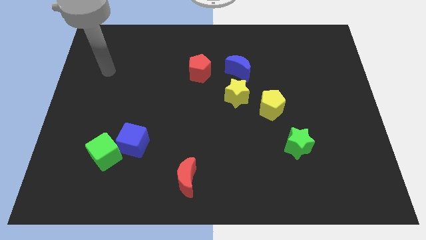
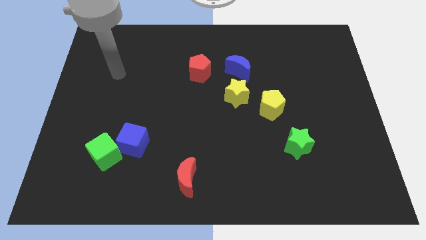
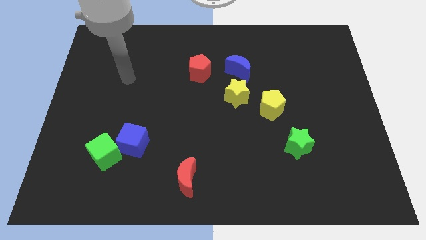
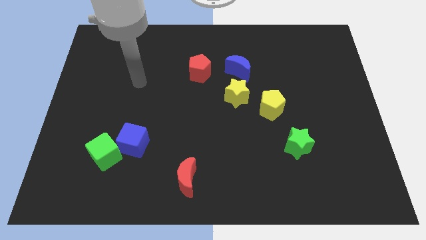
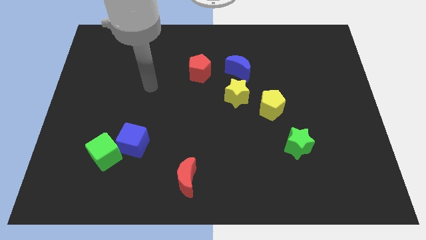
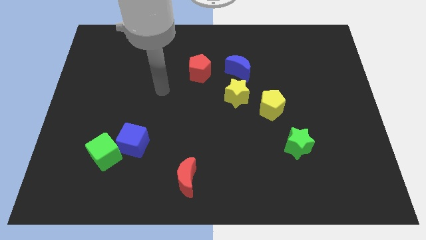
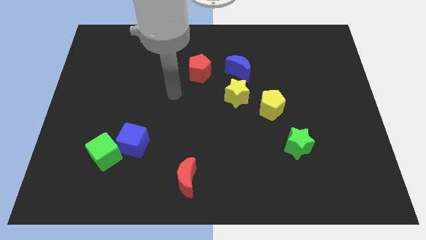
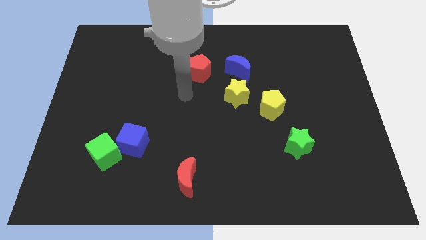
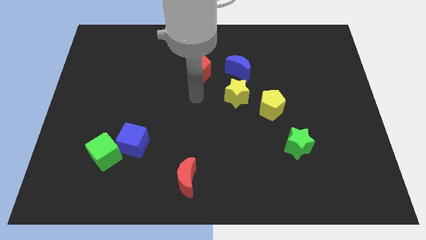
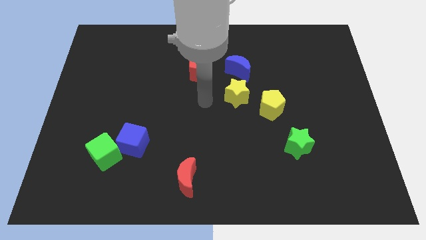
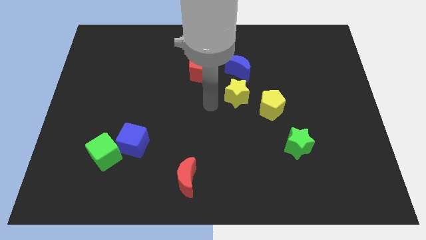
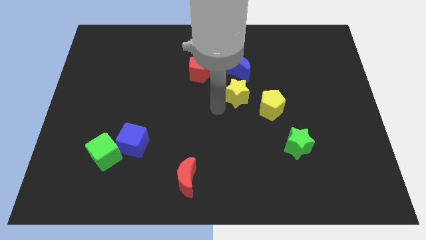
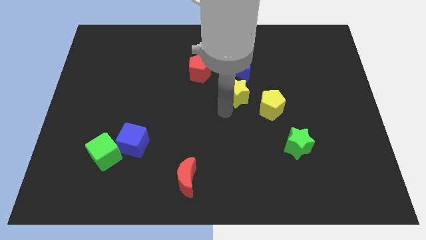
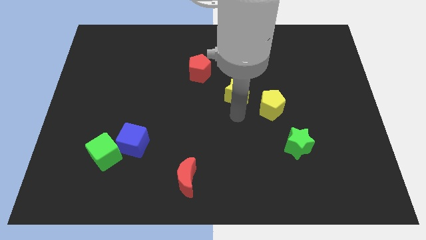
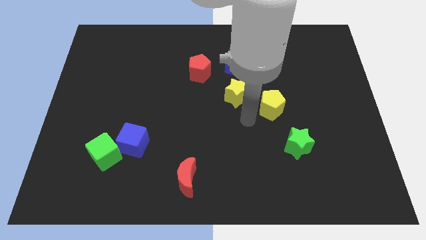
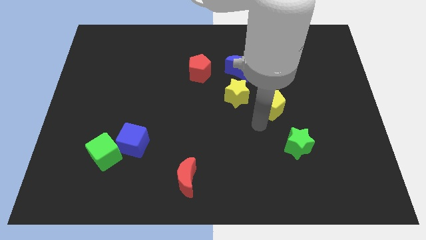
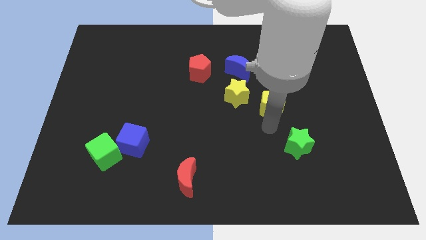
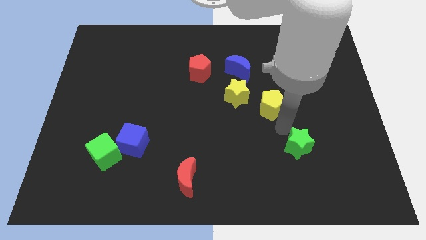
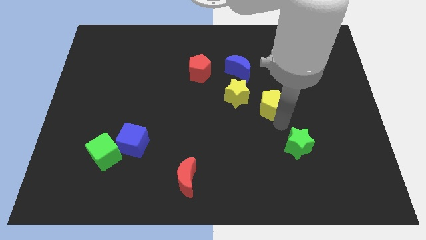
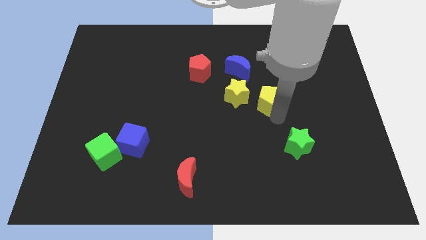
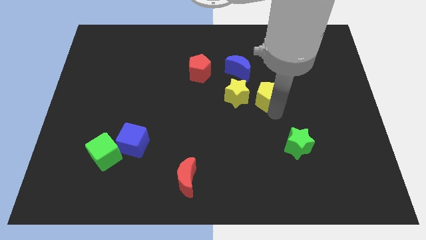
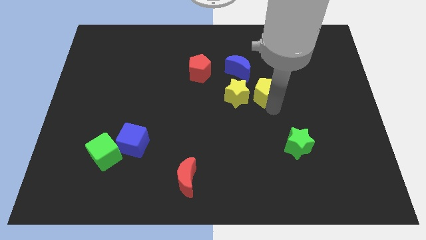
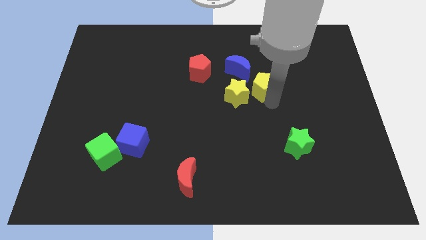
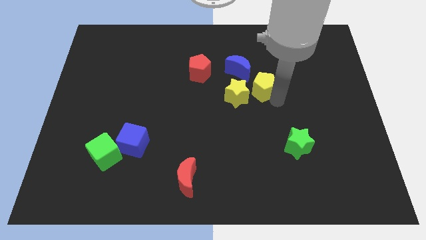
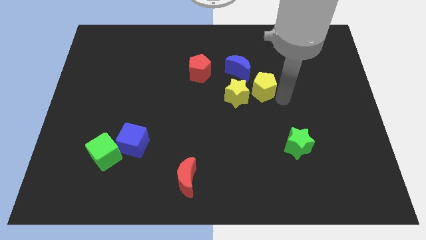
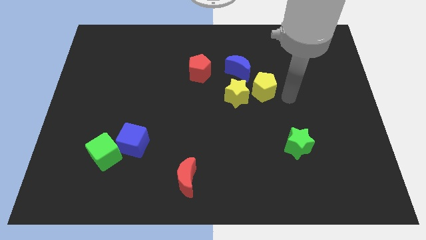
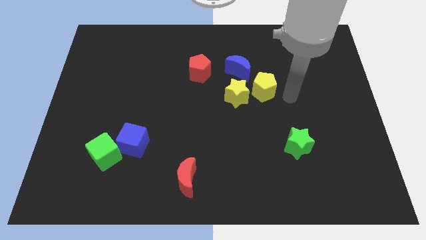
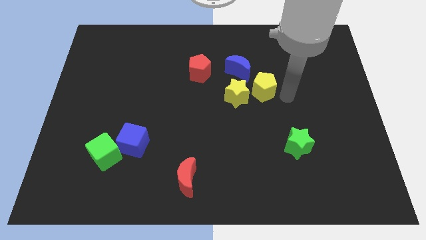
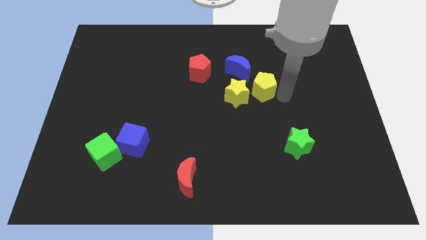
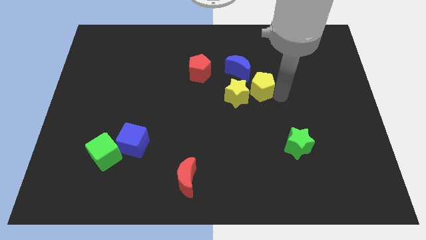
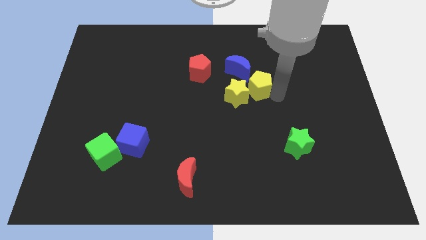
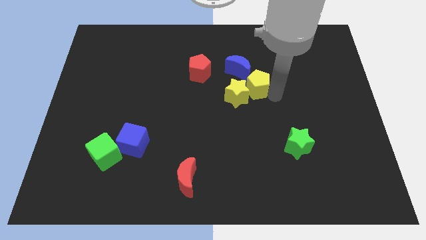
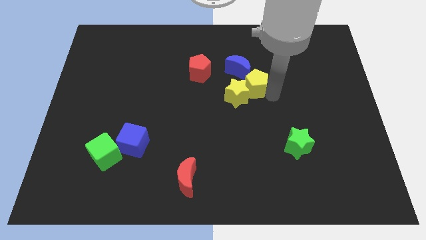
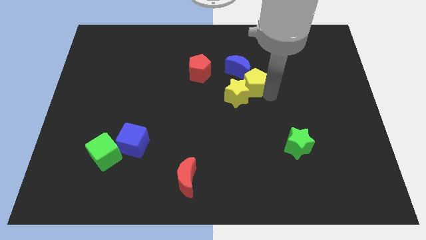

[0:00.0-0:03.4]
slightly slide the yellow pentagon upwards and then to the left

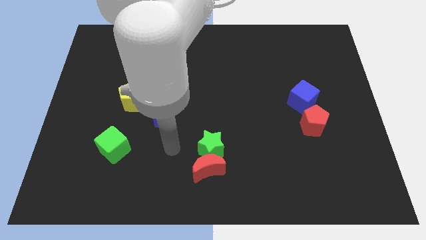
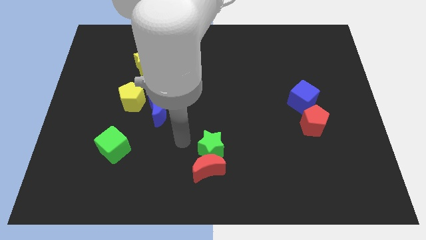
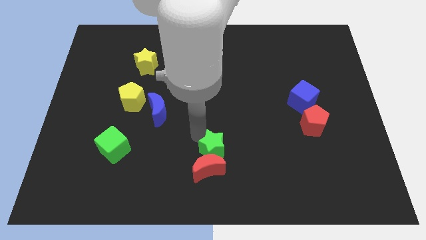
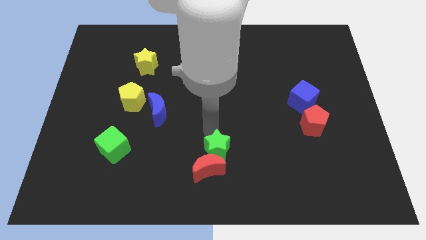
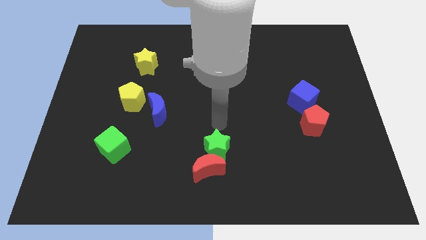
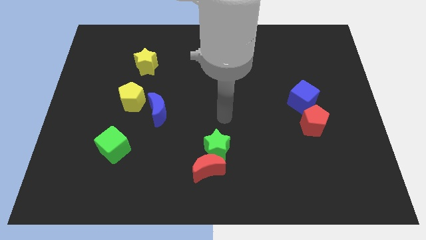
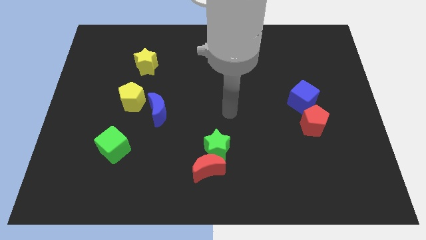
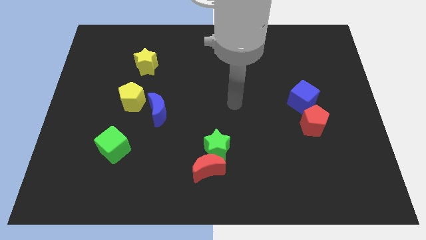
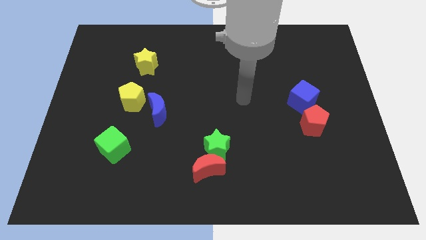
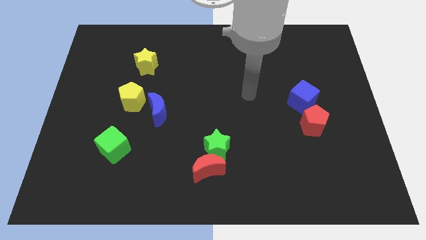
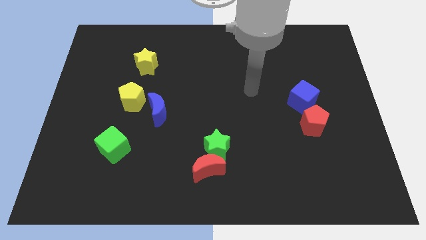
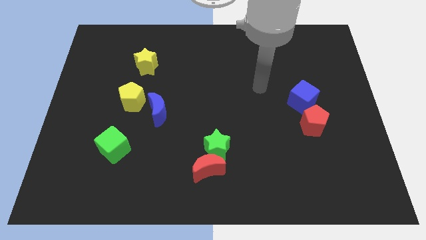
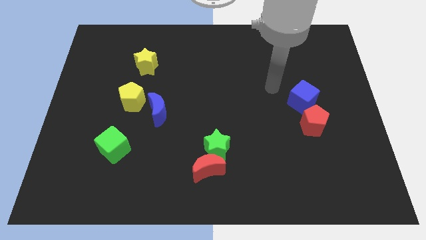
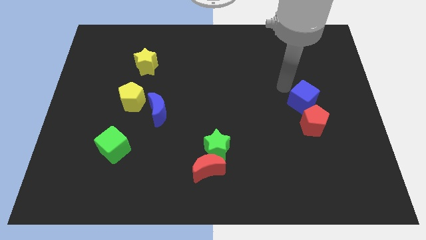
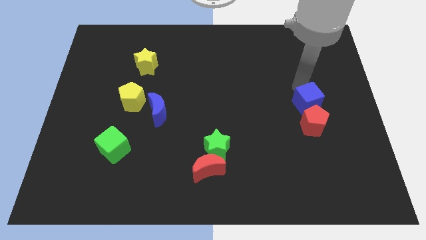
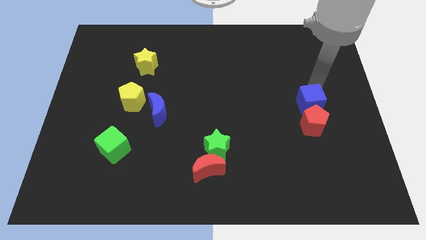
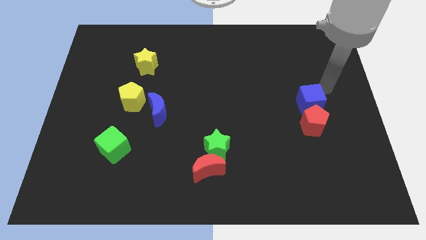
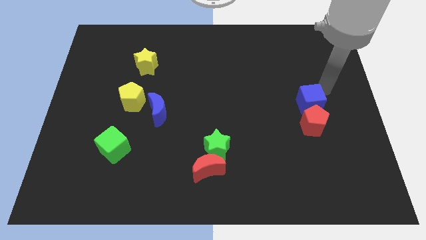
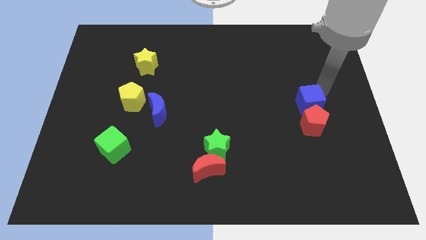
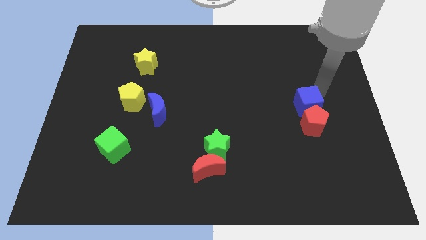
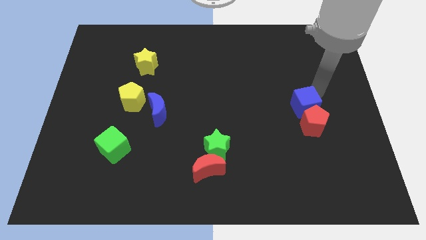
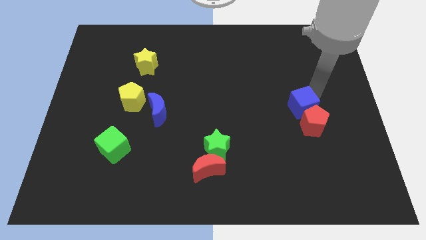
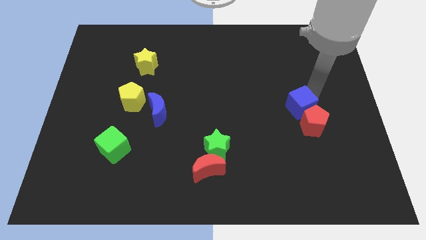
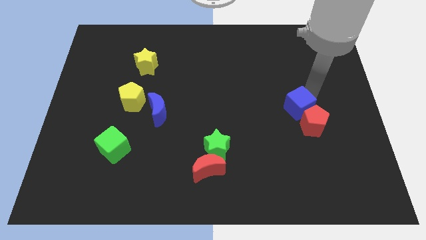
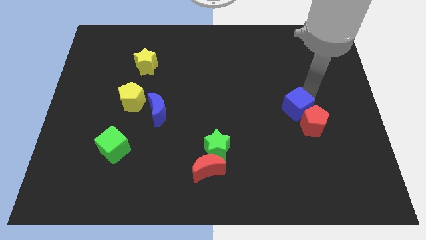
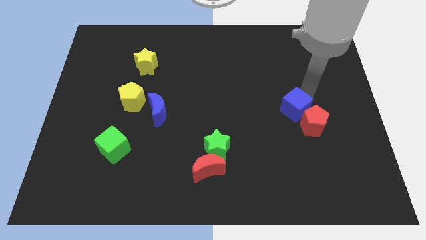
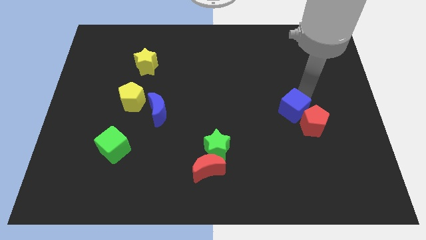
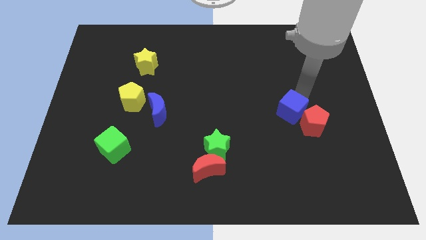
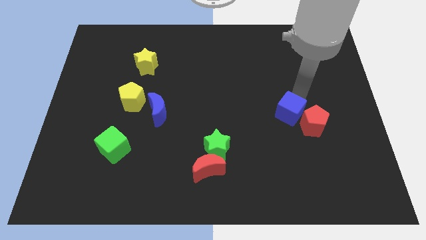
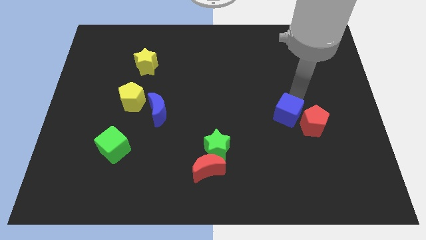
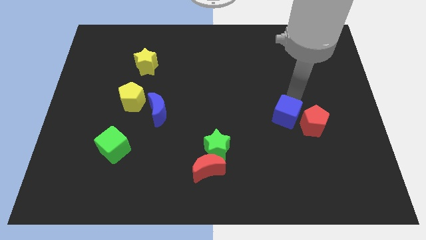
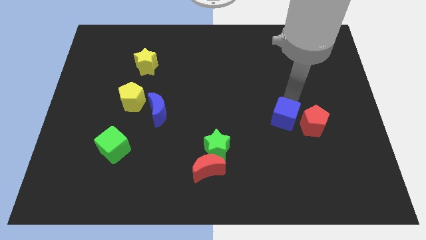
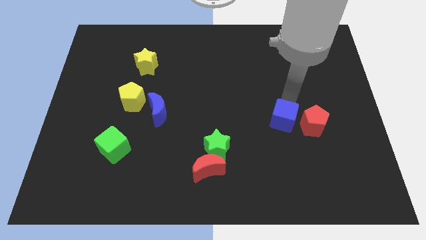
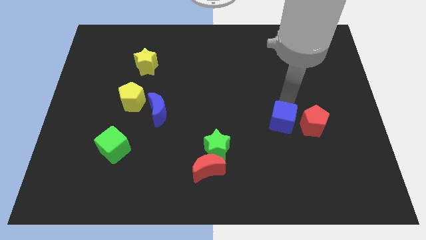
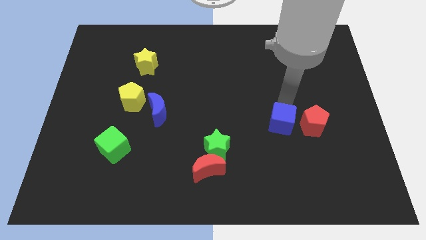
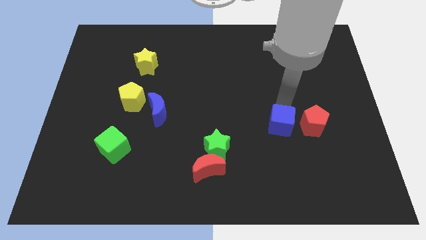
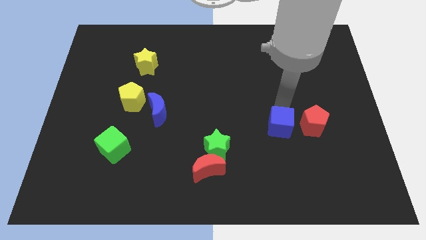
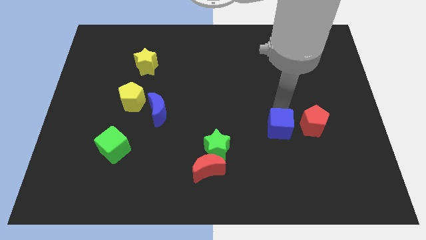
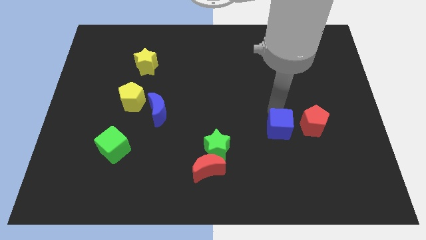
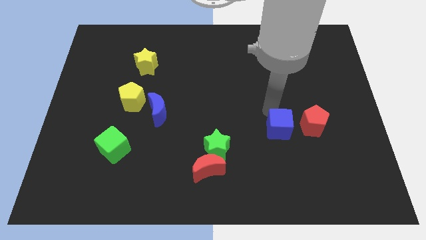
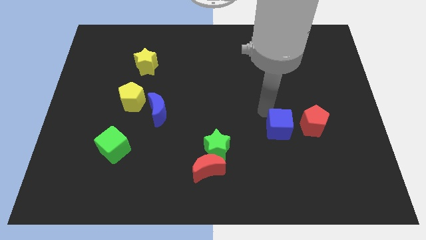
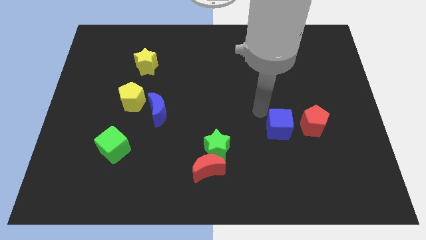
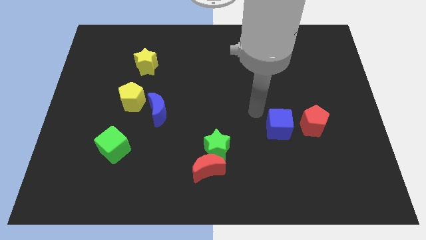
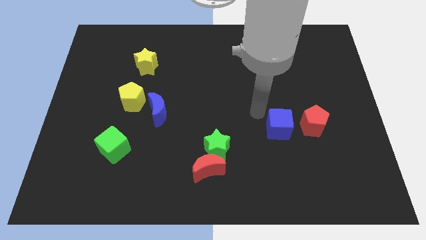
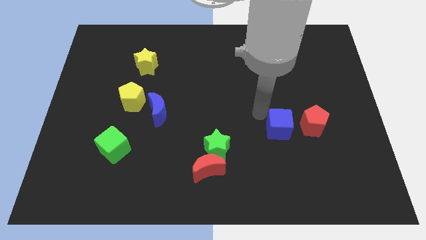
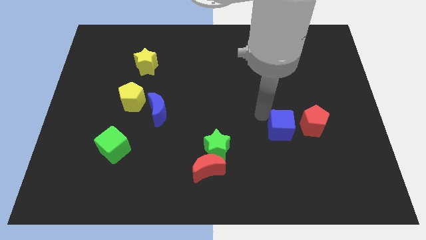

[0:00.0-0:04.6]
push the blue cube downwards somewhat
